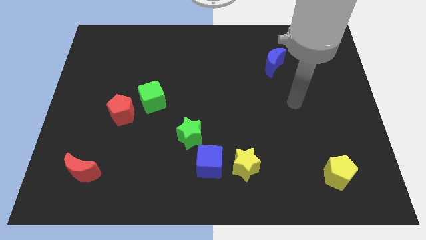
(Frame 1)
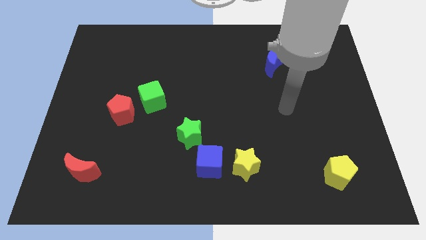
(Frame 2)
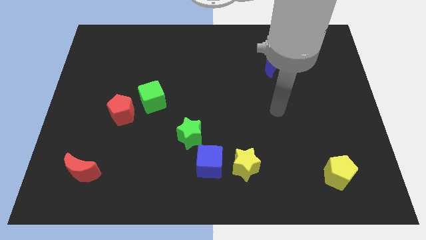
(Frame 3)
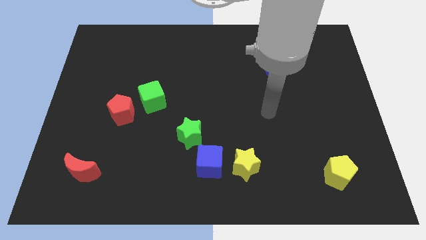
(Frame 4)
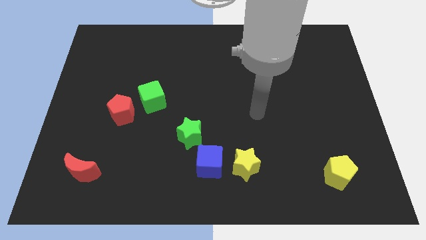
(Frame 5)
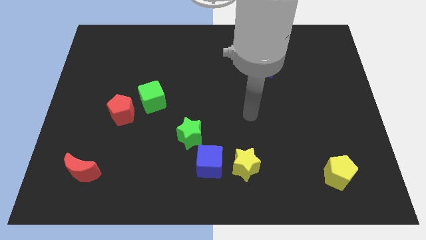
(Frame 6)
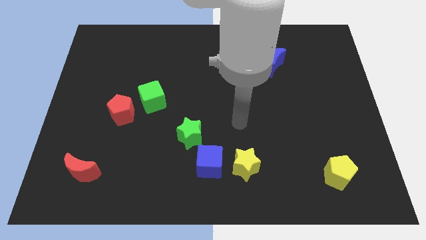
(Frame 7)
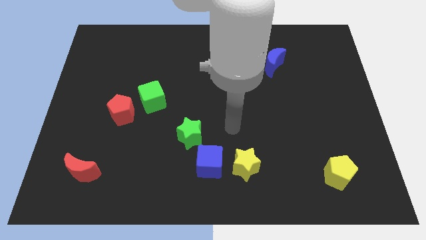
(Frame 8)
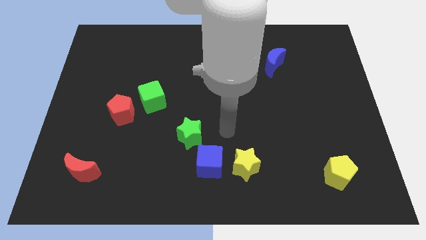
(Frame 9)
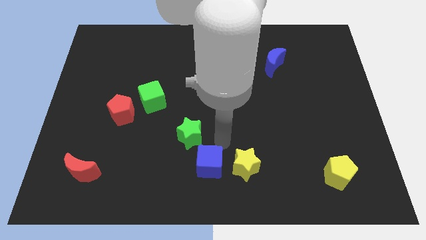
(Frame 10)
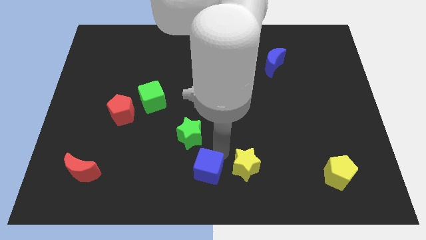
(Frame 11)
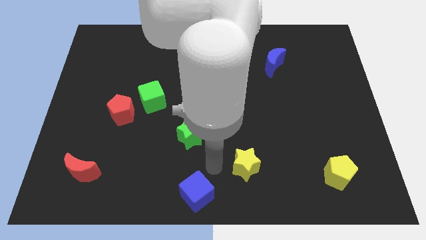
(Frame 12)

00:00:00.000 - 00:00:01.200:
pull the yellow star apart from the blue cube

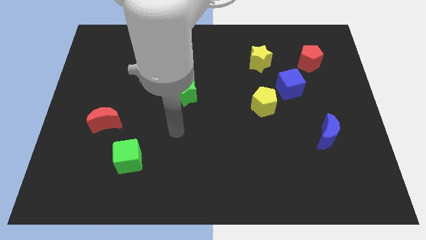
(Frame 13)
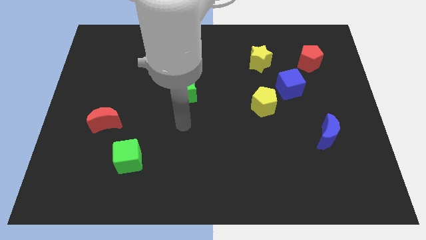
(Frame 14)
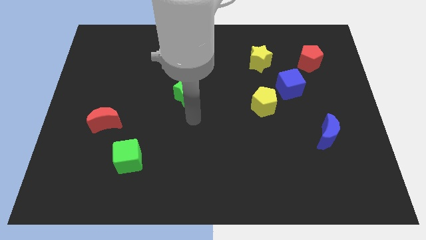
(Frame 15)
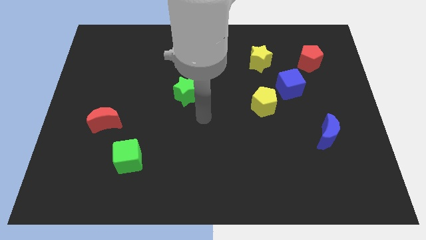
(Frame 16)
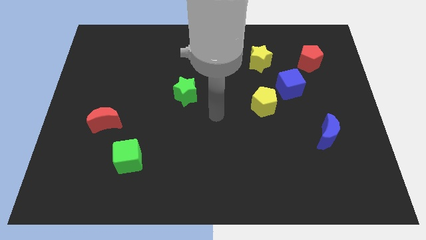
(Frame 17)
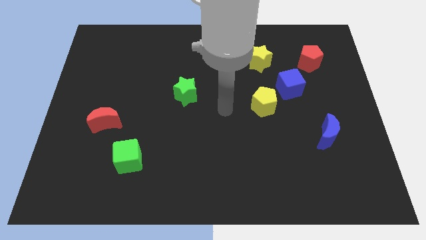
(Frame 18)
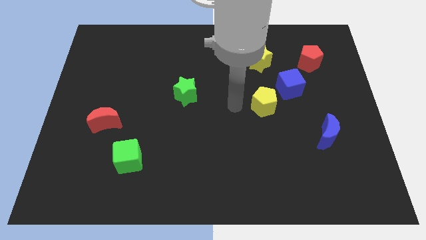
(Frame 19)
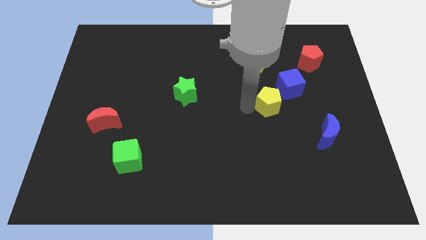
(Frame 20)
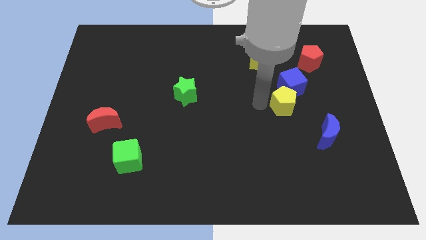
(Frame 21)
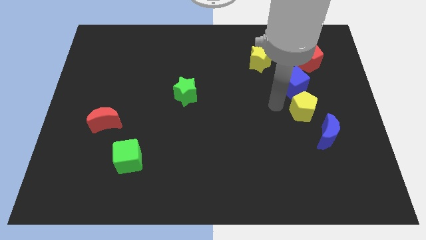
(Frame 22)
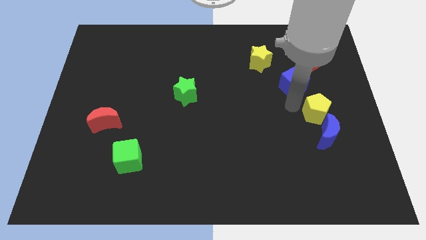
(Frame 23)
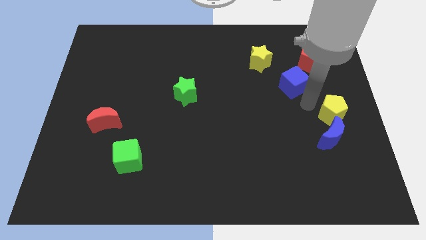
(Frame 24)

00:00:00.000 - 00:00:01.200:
pull the blue cube apart from the yellow pentagon

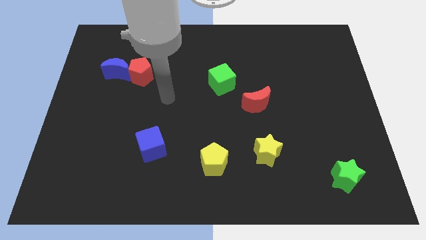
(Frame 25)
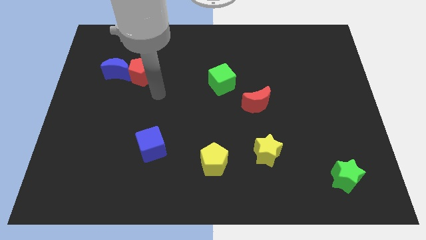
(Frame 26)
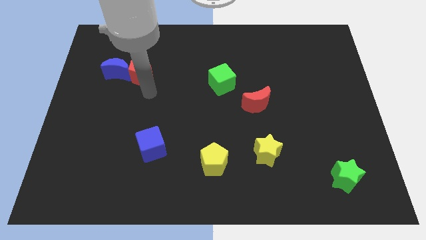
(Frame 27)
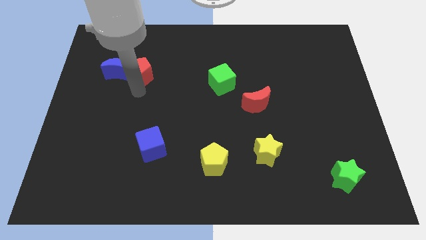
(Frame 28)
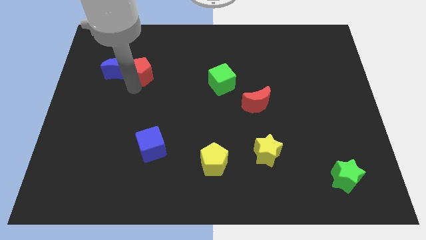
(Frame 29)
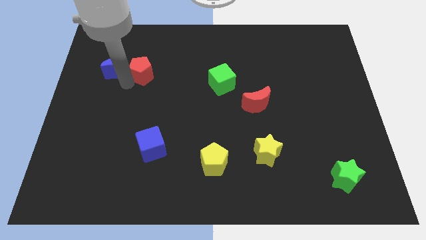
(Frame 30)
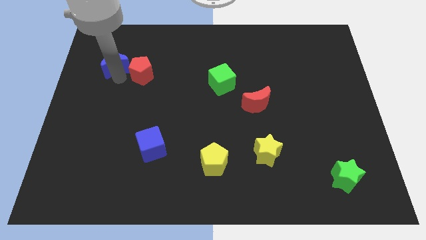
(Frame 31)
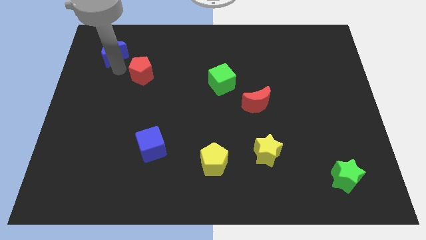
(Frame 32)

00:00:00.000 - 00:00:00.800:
pull the red pentagon apart from the blue moon

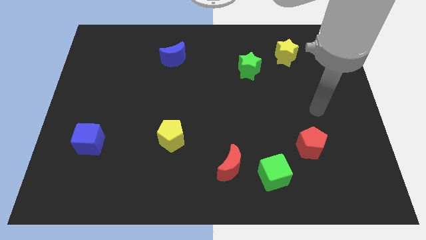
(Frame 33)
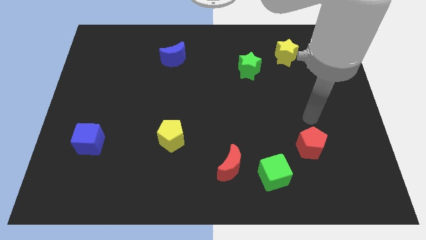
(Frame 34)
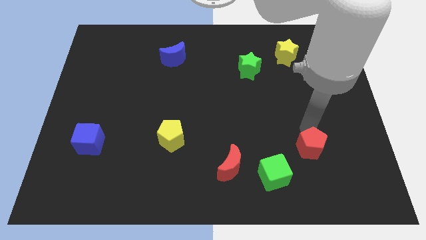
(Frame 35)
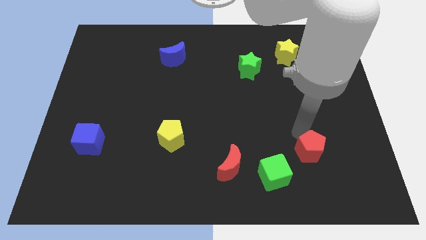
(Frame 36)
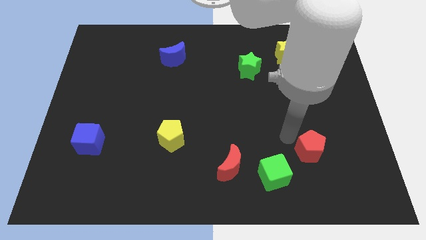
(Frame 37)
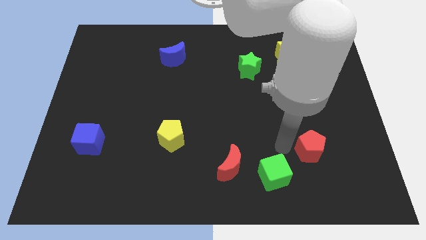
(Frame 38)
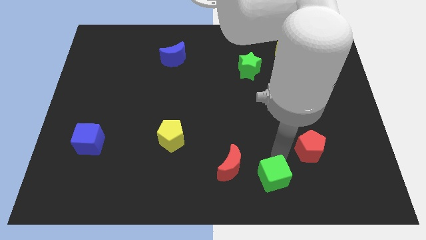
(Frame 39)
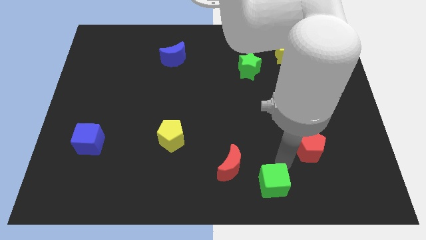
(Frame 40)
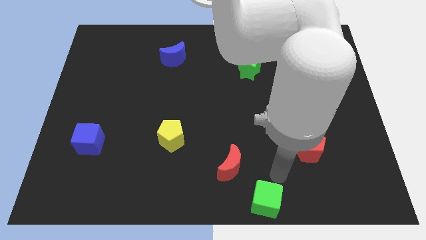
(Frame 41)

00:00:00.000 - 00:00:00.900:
pull the red moon apart from the green cube

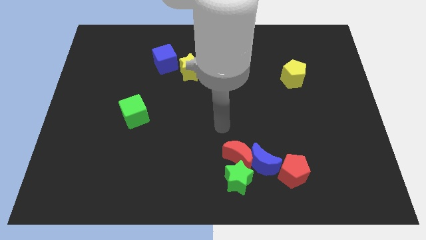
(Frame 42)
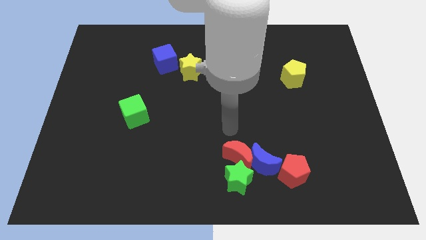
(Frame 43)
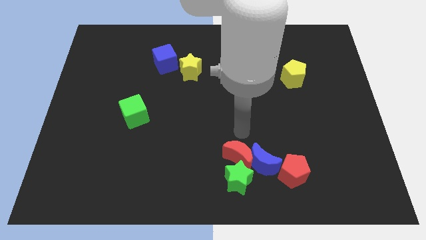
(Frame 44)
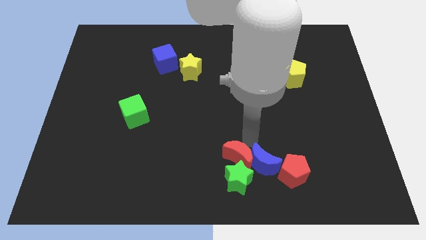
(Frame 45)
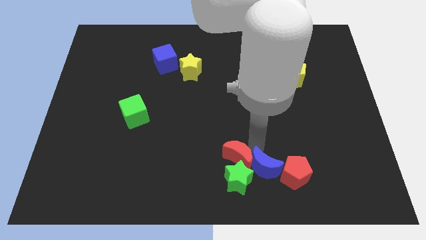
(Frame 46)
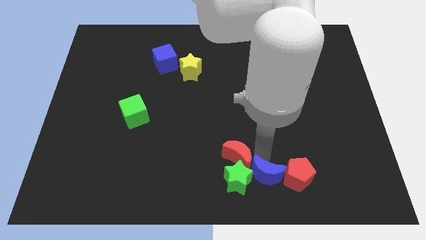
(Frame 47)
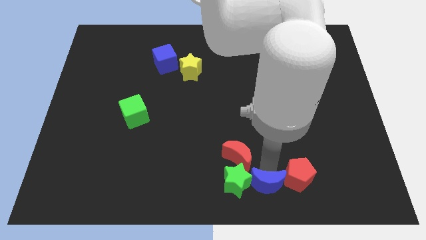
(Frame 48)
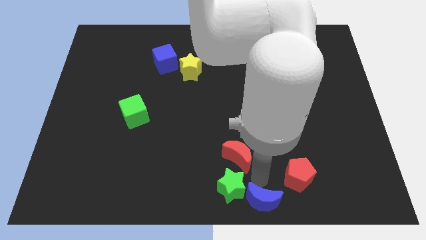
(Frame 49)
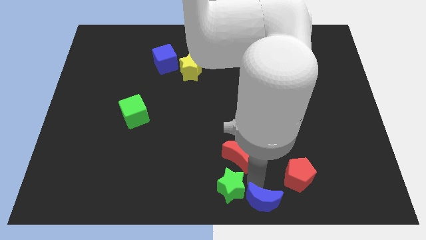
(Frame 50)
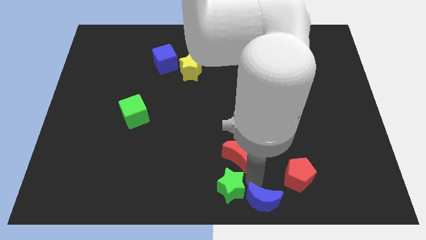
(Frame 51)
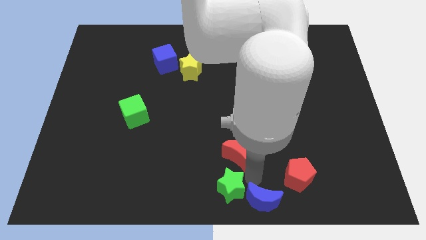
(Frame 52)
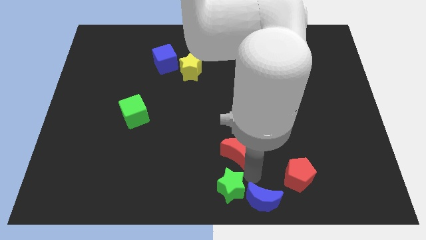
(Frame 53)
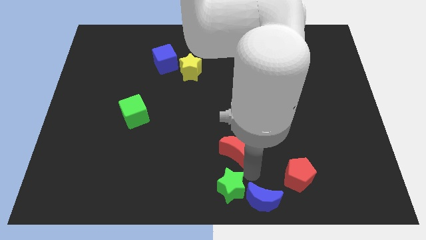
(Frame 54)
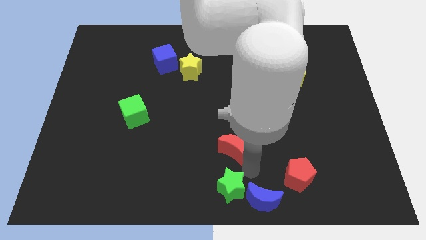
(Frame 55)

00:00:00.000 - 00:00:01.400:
move the red moon away from the blue moon and green star

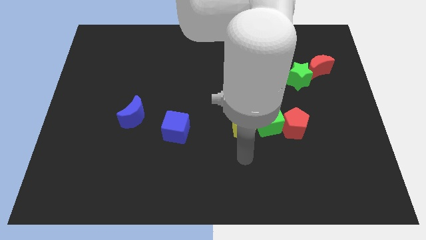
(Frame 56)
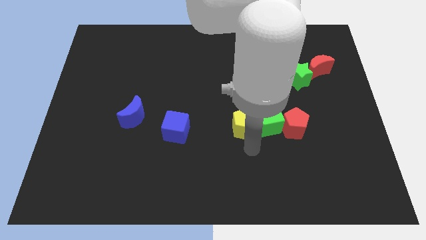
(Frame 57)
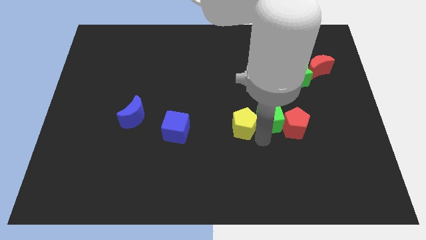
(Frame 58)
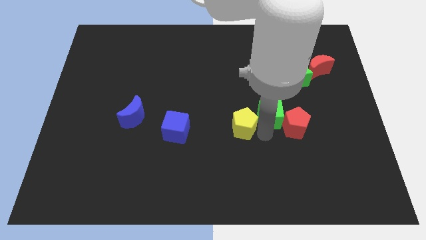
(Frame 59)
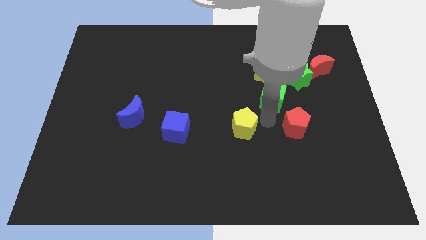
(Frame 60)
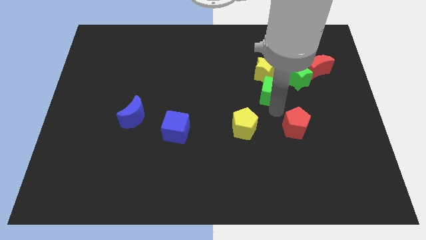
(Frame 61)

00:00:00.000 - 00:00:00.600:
move the red pentagon away from the green cube

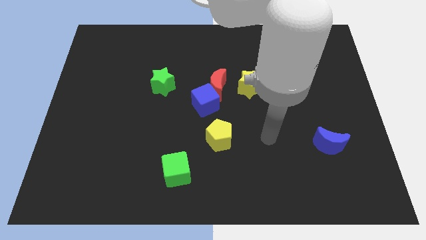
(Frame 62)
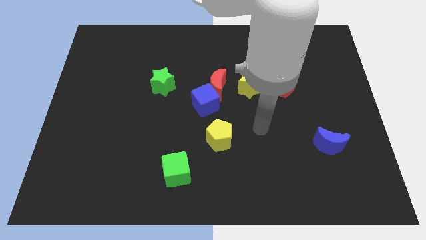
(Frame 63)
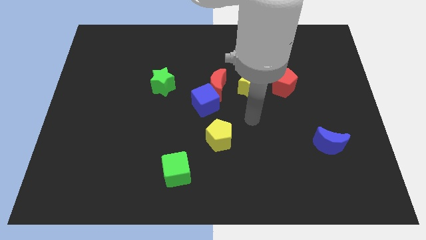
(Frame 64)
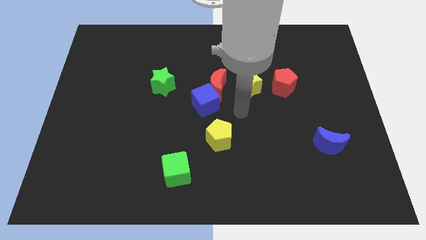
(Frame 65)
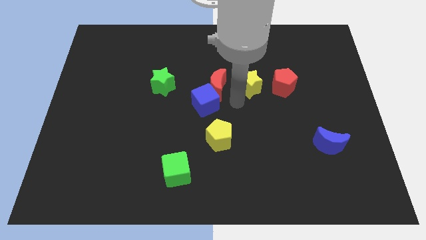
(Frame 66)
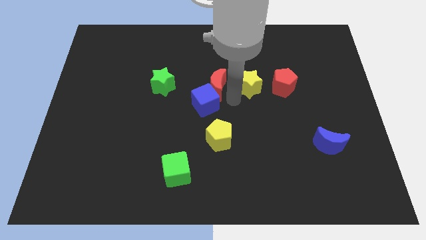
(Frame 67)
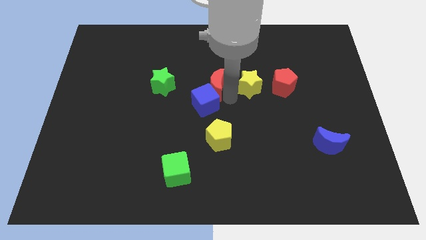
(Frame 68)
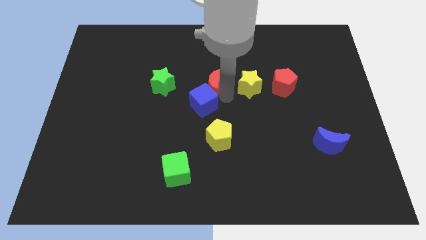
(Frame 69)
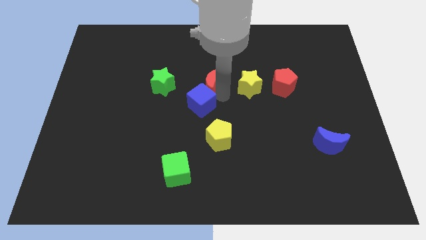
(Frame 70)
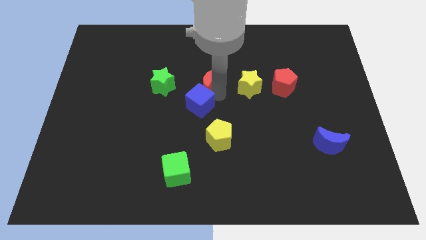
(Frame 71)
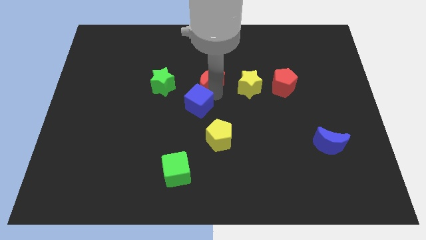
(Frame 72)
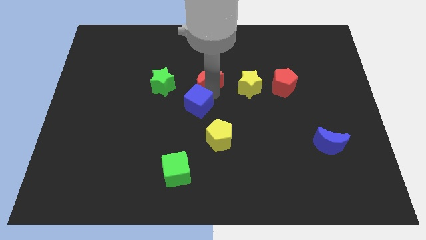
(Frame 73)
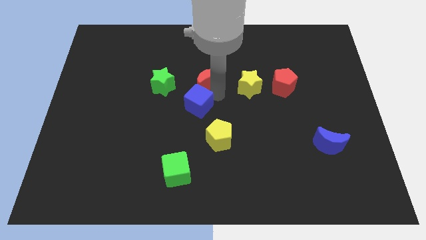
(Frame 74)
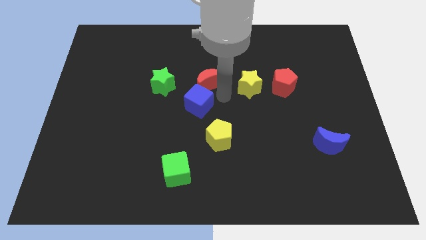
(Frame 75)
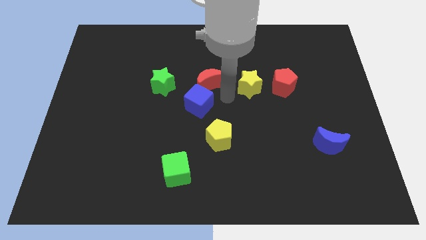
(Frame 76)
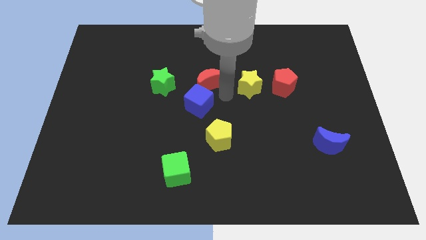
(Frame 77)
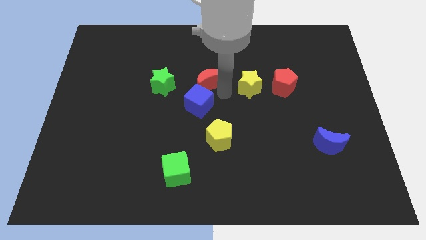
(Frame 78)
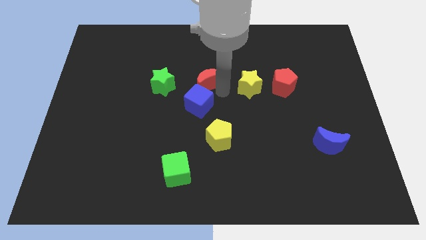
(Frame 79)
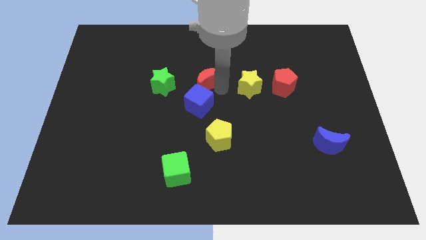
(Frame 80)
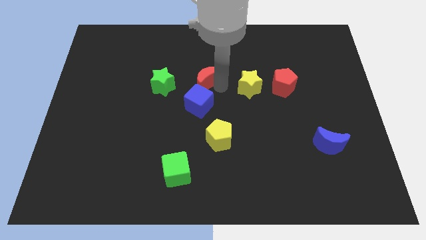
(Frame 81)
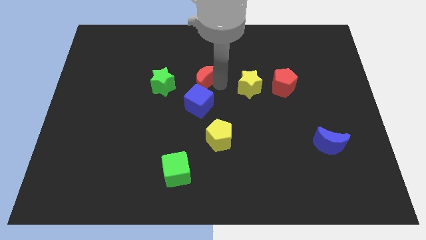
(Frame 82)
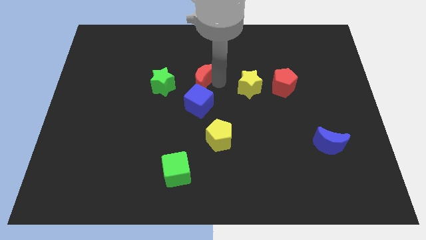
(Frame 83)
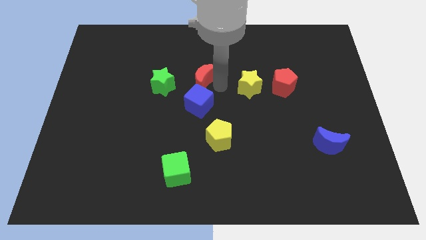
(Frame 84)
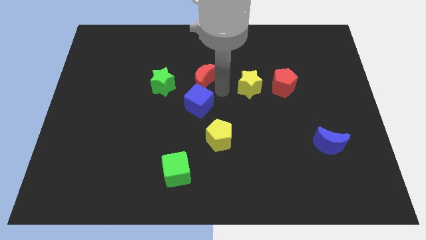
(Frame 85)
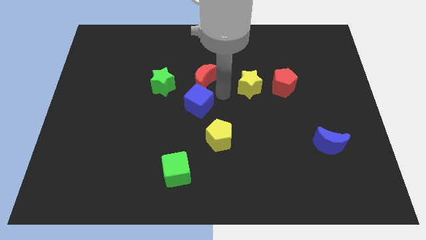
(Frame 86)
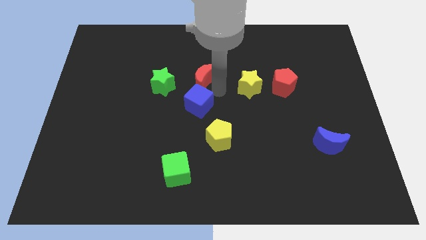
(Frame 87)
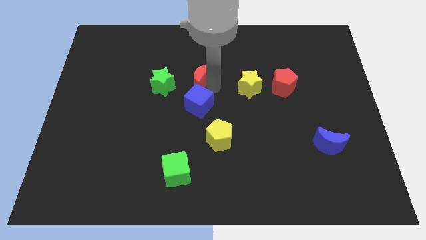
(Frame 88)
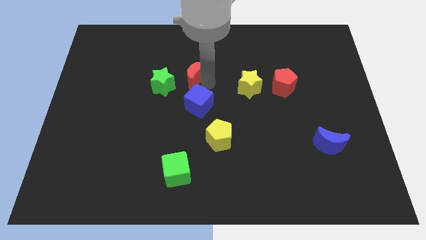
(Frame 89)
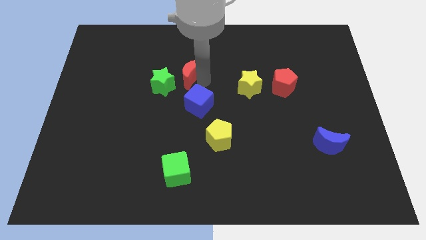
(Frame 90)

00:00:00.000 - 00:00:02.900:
move the red moon away from the blue cube and yellow star

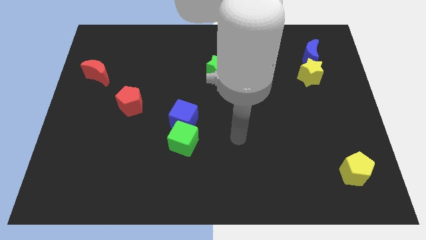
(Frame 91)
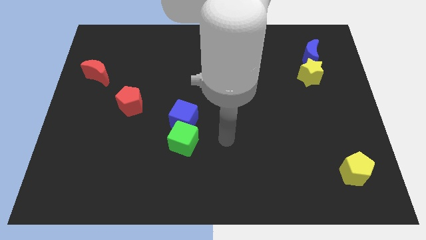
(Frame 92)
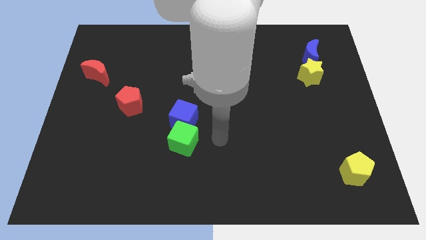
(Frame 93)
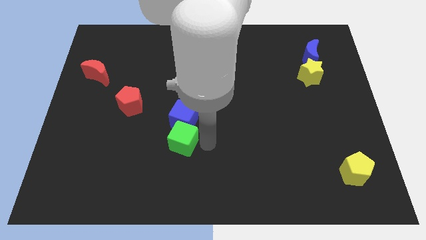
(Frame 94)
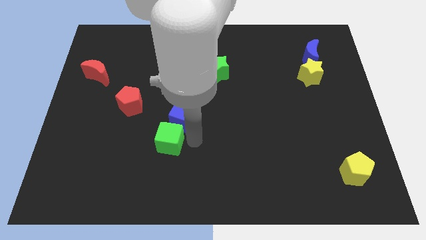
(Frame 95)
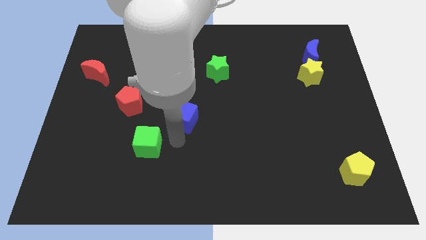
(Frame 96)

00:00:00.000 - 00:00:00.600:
separate the blue cube from the green cube
